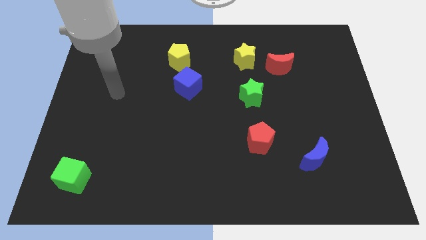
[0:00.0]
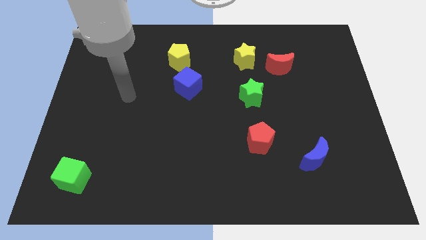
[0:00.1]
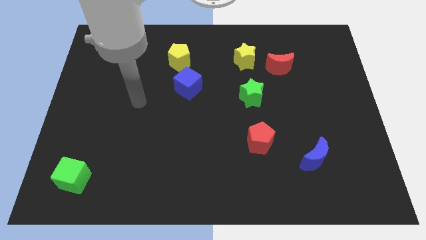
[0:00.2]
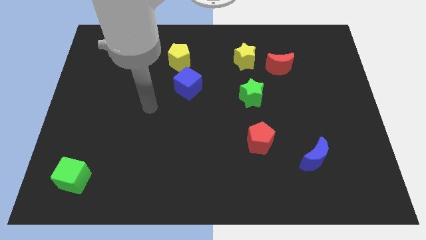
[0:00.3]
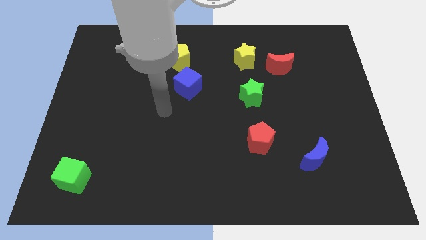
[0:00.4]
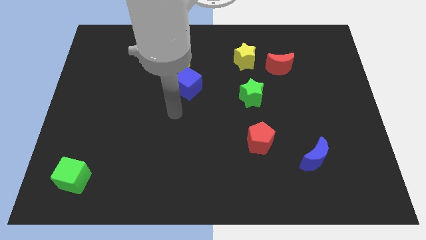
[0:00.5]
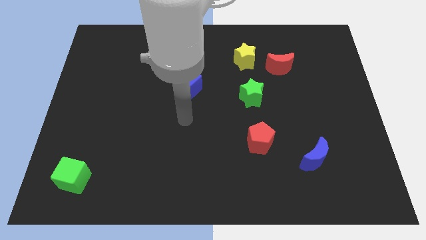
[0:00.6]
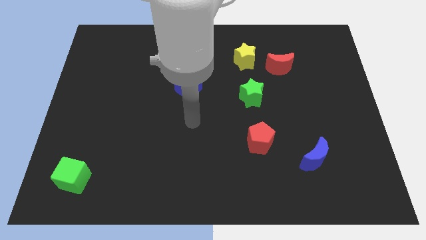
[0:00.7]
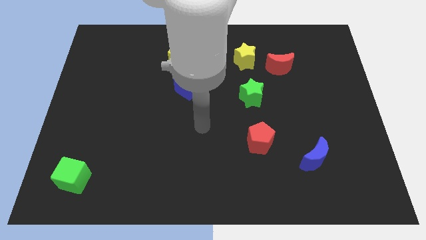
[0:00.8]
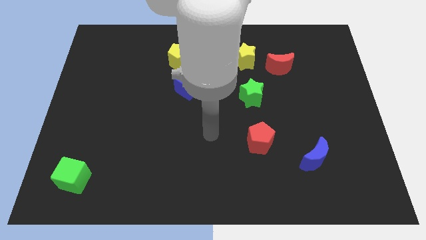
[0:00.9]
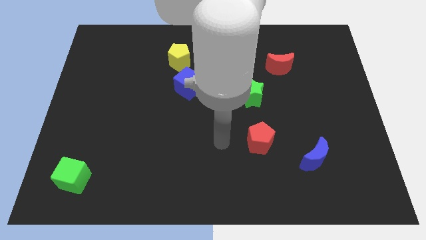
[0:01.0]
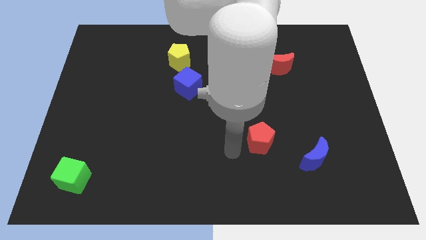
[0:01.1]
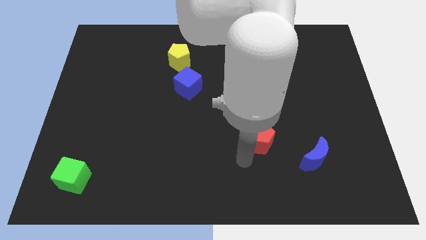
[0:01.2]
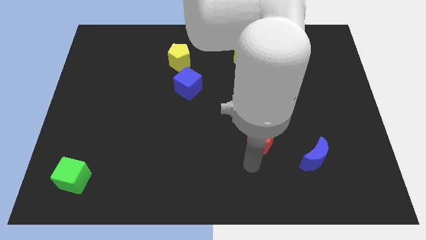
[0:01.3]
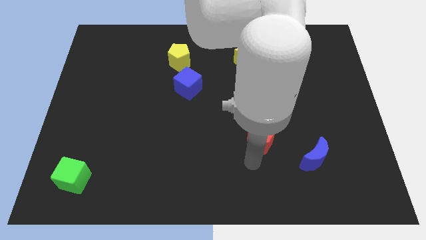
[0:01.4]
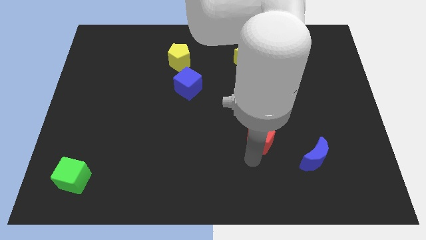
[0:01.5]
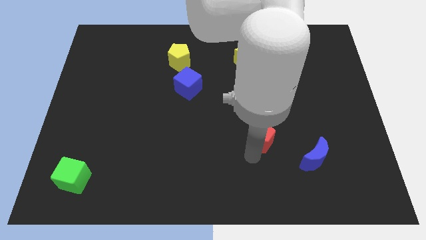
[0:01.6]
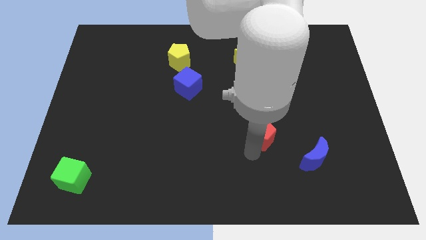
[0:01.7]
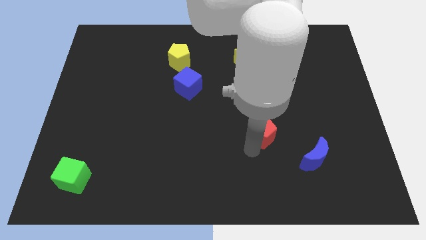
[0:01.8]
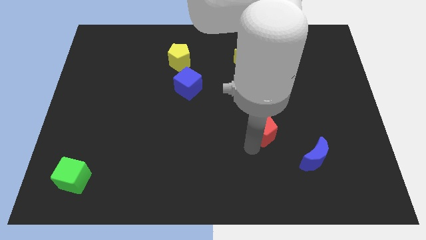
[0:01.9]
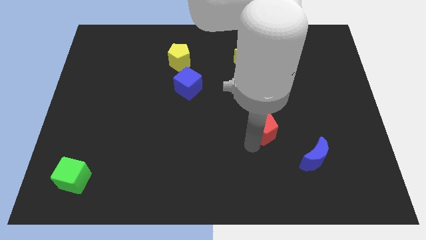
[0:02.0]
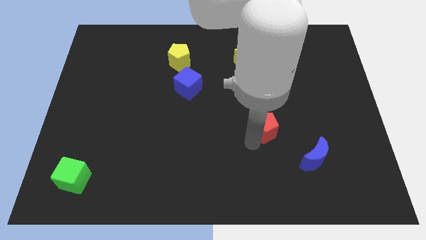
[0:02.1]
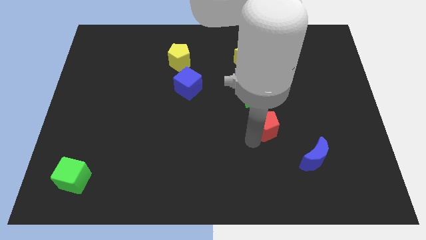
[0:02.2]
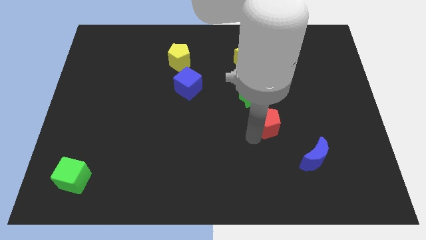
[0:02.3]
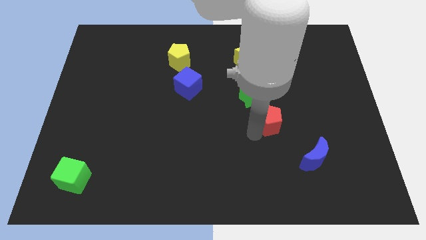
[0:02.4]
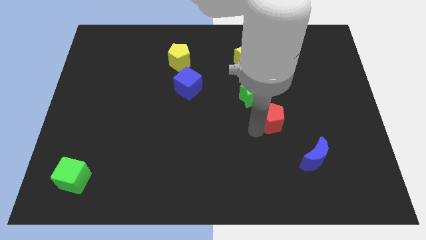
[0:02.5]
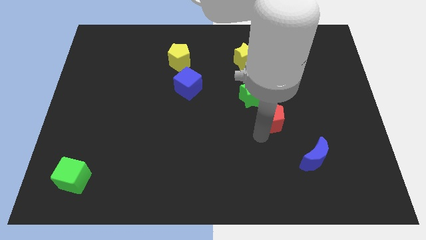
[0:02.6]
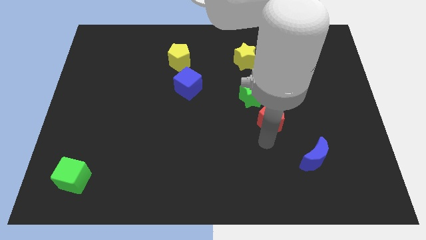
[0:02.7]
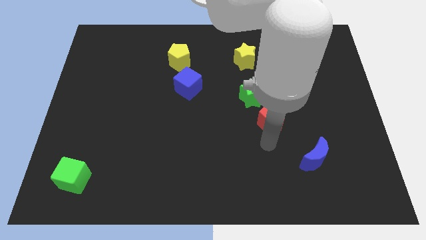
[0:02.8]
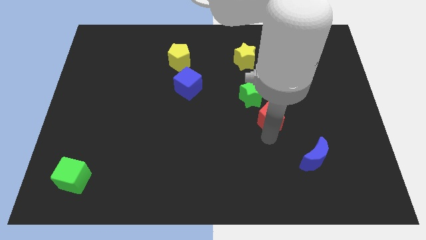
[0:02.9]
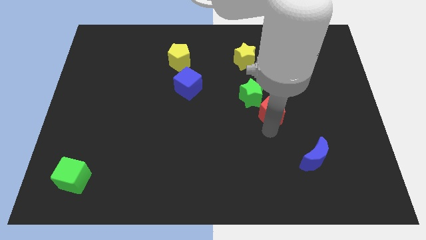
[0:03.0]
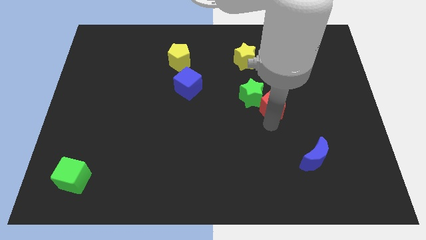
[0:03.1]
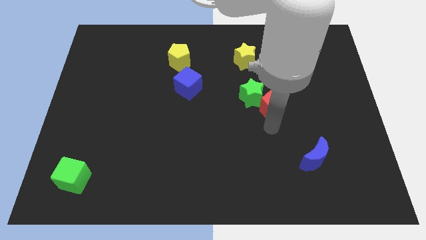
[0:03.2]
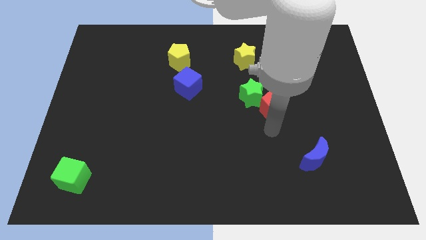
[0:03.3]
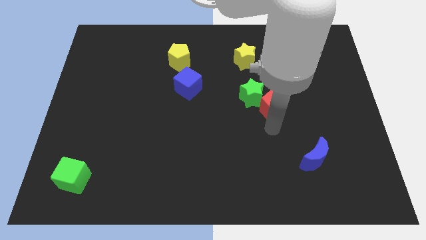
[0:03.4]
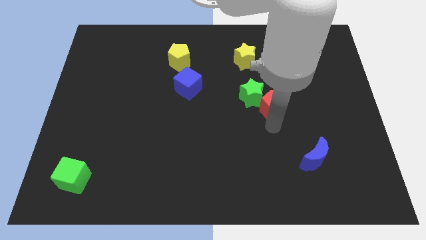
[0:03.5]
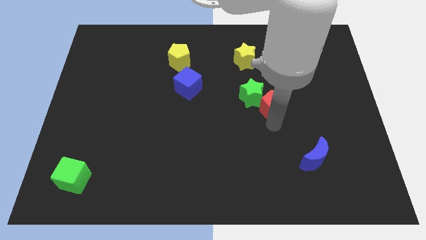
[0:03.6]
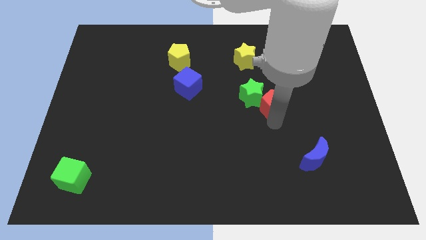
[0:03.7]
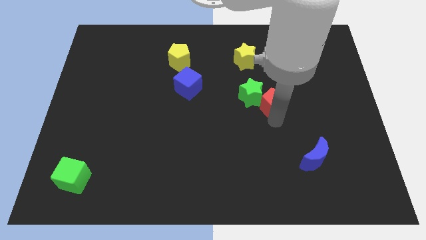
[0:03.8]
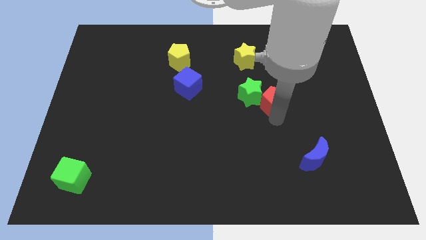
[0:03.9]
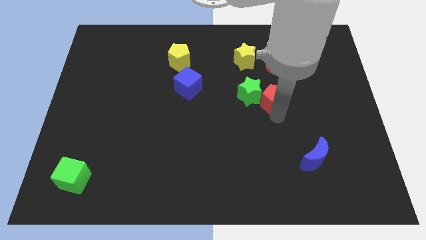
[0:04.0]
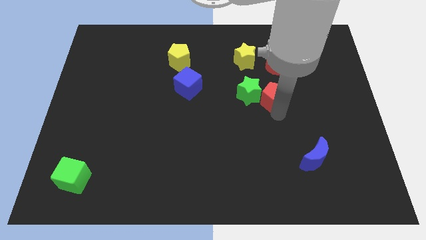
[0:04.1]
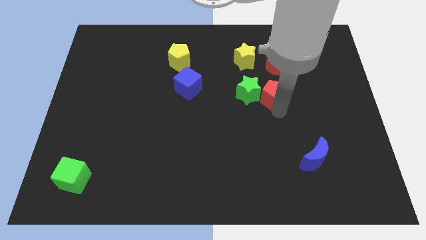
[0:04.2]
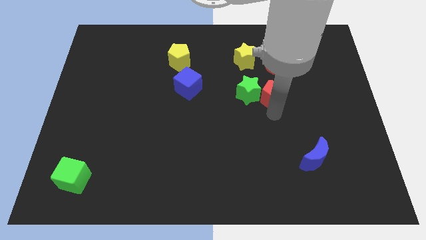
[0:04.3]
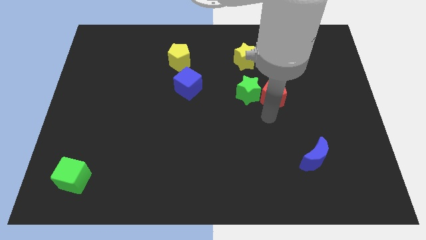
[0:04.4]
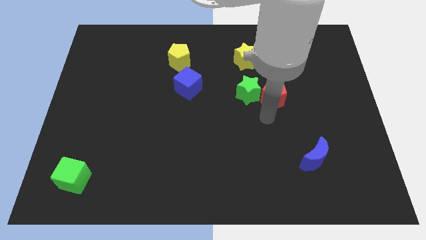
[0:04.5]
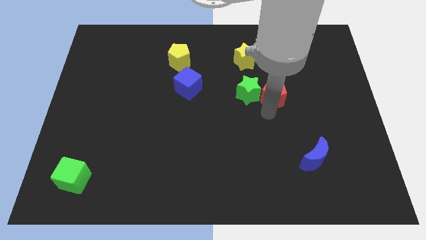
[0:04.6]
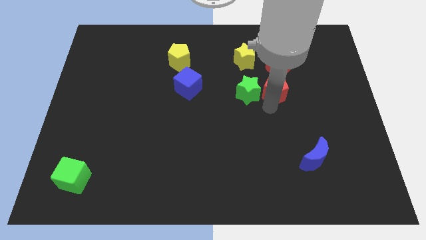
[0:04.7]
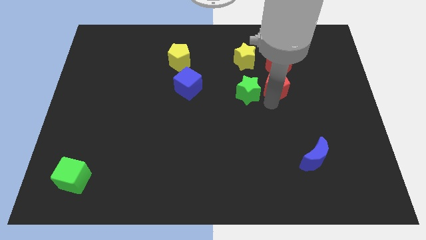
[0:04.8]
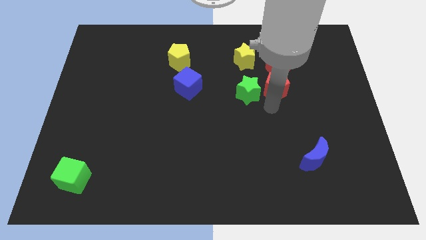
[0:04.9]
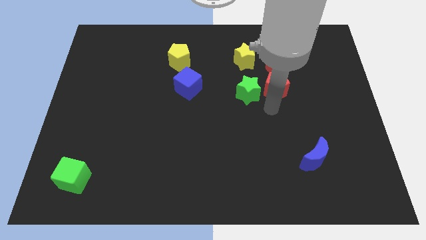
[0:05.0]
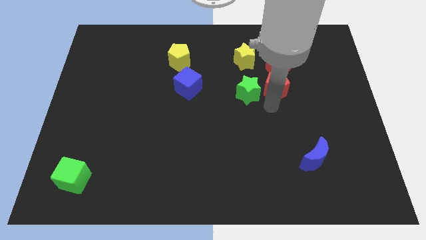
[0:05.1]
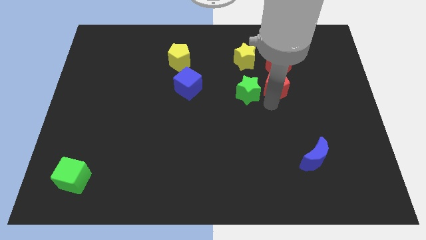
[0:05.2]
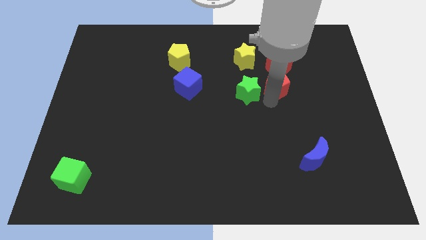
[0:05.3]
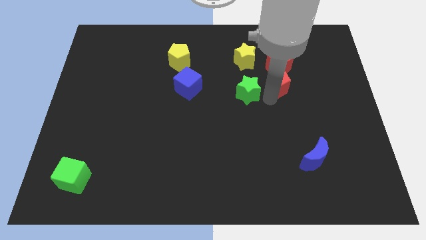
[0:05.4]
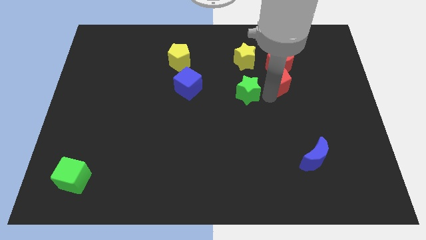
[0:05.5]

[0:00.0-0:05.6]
push the red pentagon towards the red moon

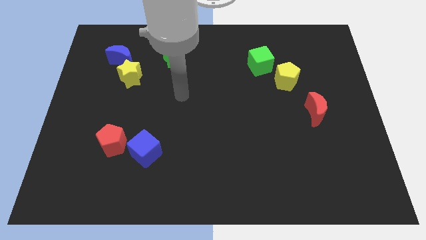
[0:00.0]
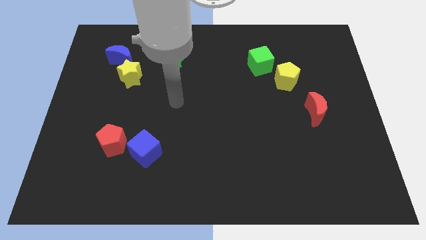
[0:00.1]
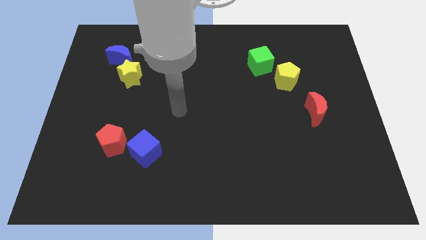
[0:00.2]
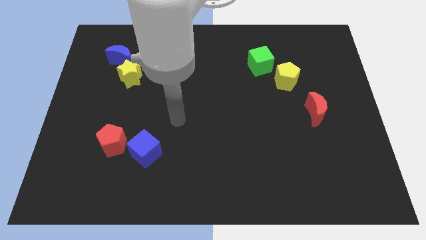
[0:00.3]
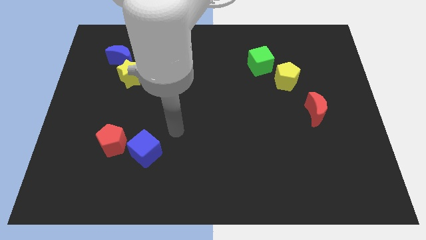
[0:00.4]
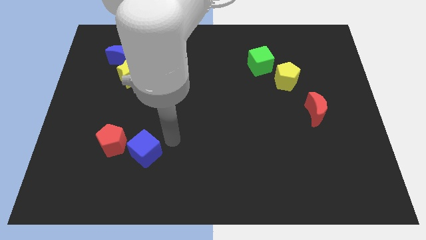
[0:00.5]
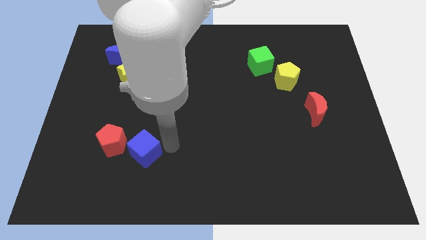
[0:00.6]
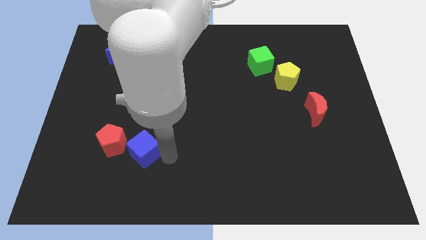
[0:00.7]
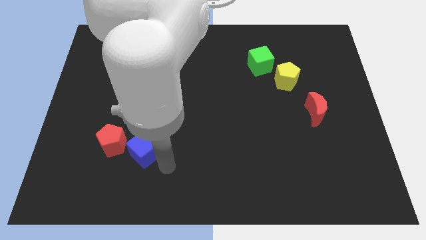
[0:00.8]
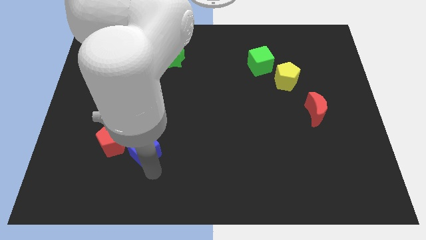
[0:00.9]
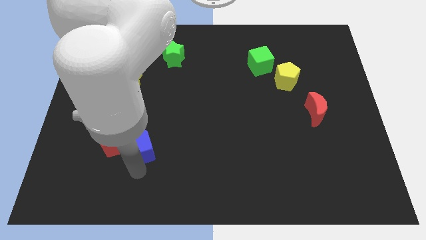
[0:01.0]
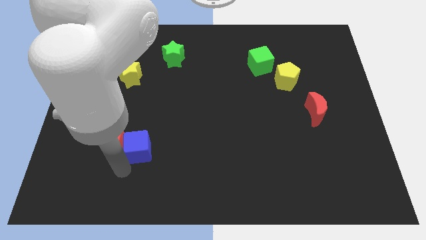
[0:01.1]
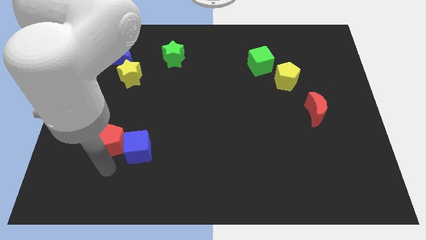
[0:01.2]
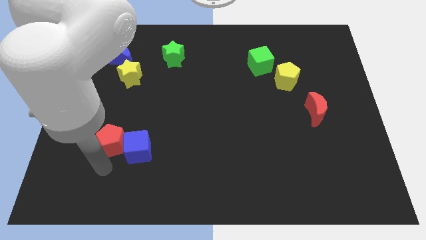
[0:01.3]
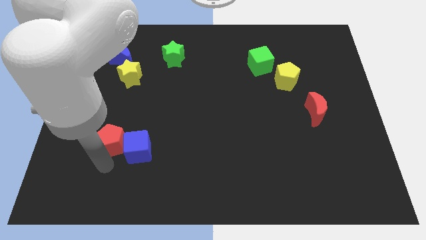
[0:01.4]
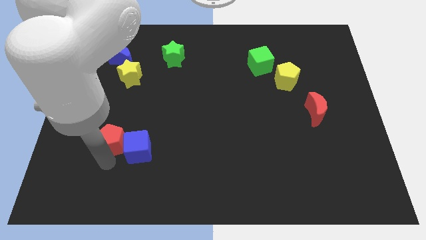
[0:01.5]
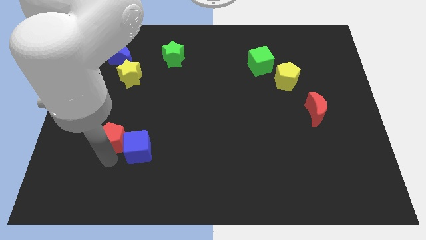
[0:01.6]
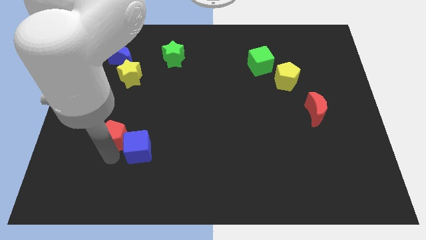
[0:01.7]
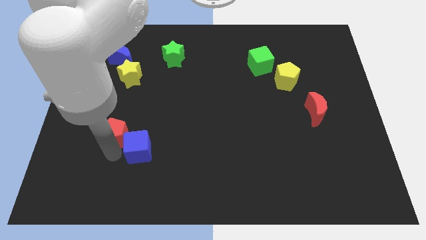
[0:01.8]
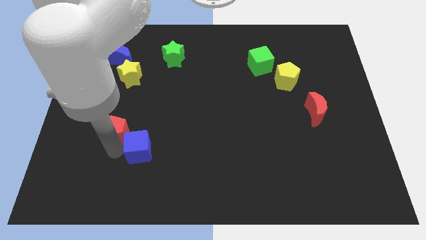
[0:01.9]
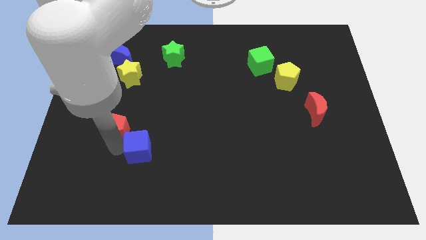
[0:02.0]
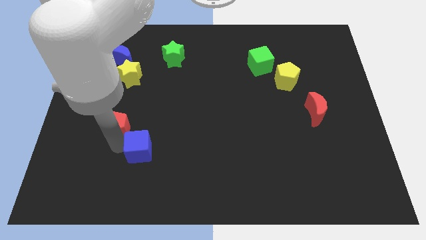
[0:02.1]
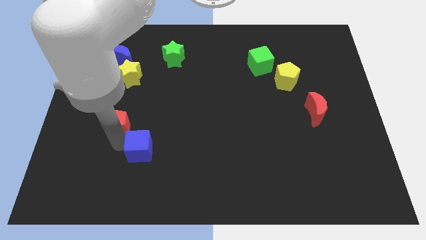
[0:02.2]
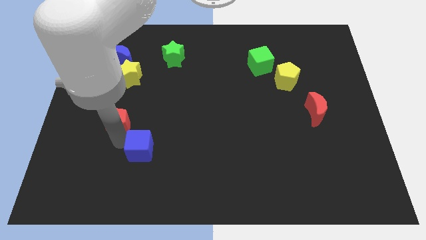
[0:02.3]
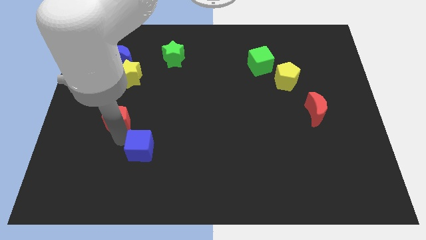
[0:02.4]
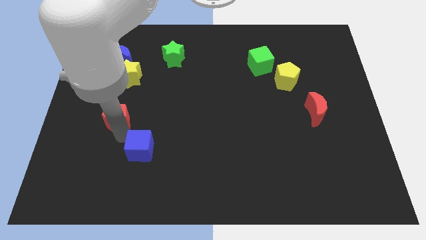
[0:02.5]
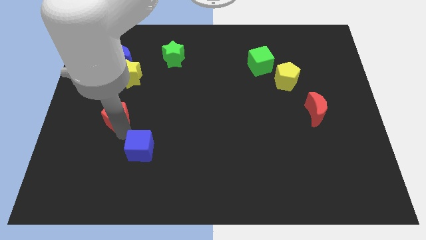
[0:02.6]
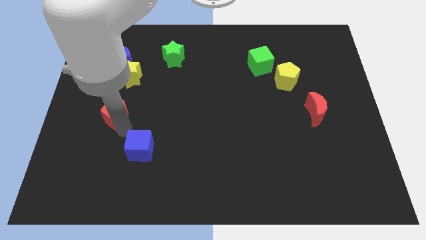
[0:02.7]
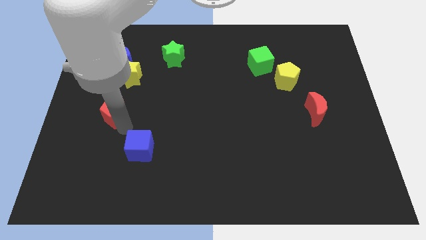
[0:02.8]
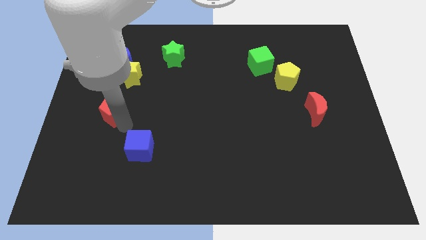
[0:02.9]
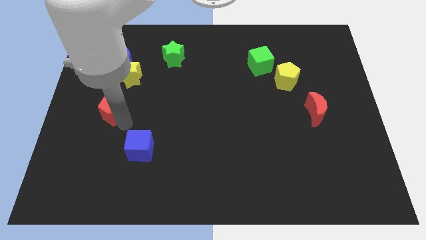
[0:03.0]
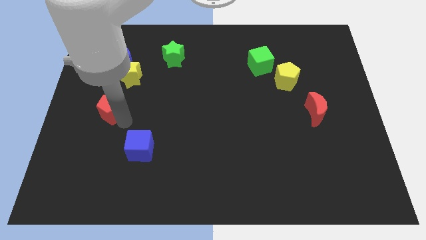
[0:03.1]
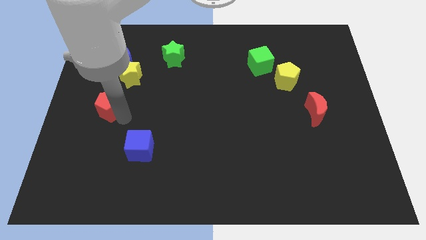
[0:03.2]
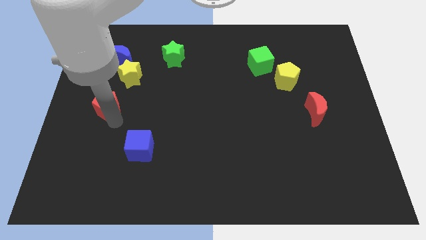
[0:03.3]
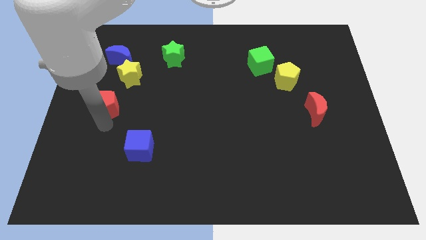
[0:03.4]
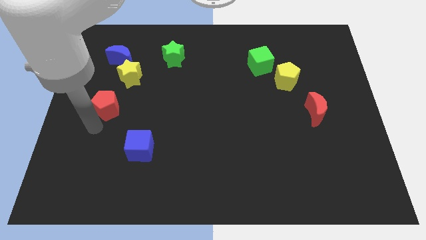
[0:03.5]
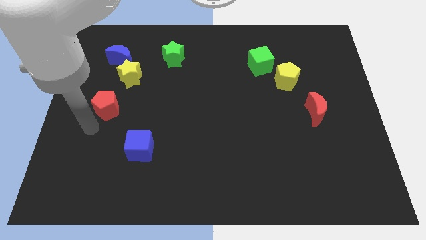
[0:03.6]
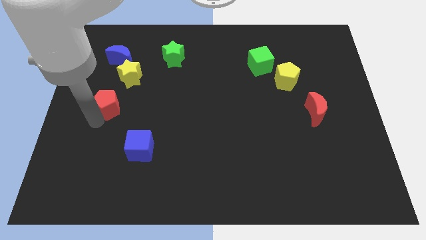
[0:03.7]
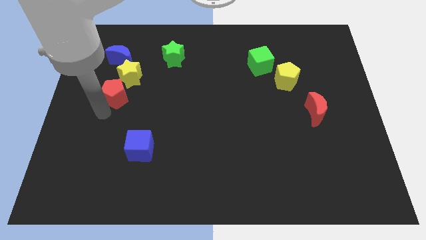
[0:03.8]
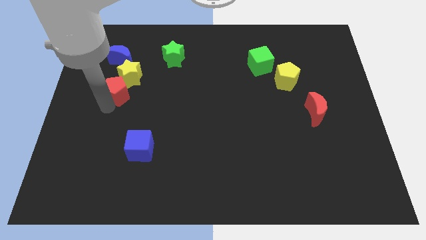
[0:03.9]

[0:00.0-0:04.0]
put the red pentagon towards the yellow star
